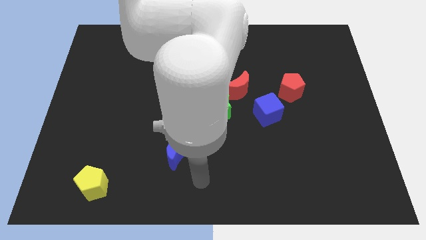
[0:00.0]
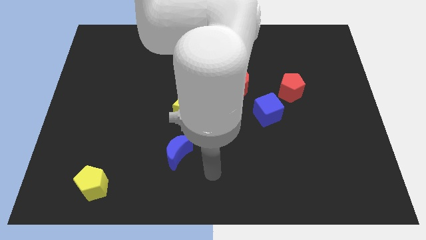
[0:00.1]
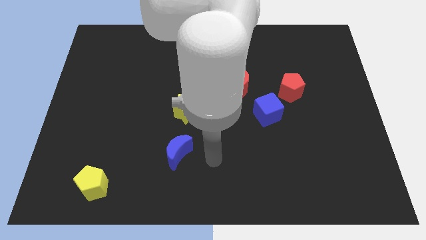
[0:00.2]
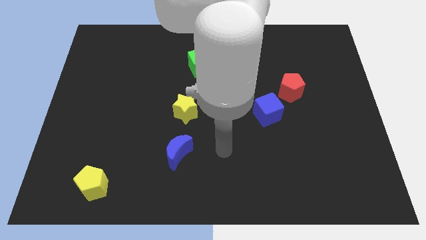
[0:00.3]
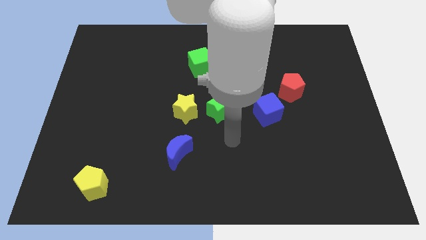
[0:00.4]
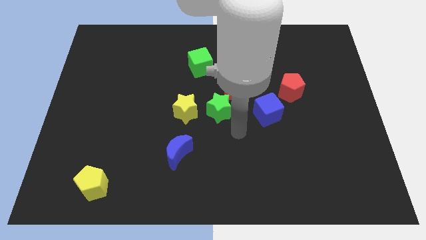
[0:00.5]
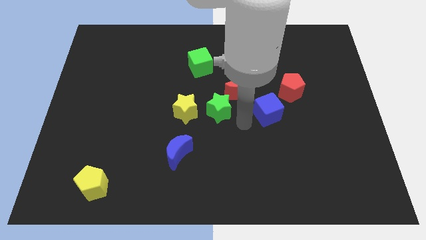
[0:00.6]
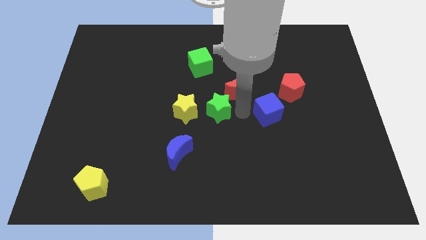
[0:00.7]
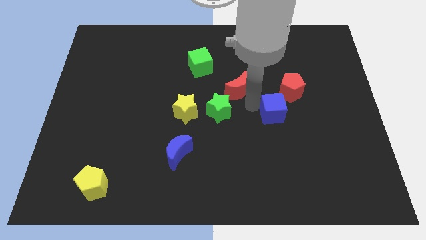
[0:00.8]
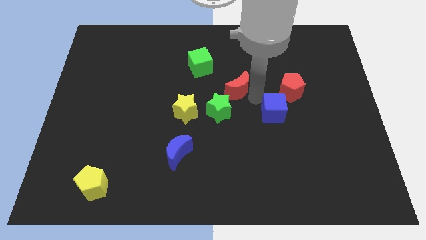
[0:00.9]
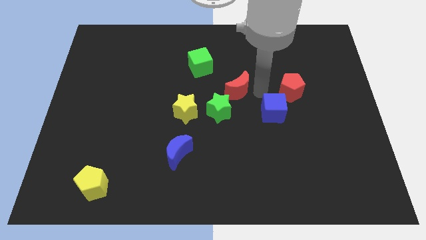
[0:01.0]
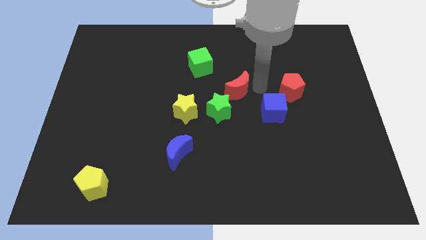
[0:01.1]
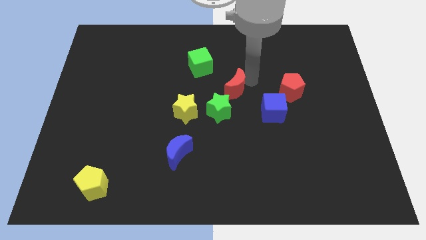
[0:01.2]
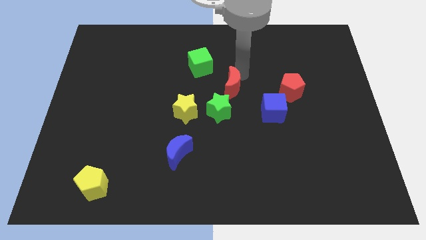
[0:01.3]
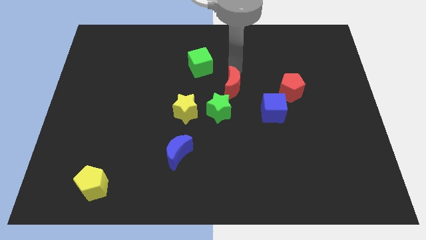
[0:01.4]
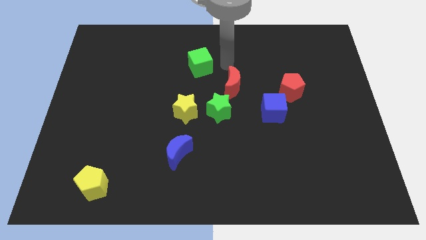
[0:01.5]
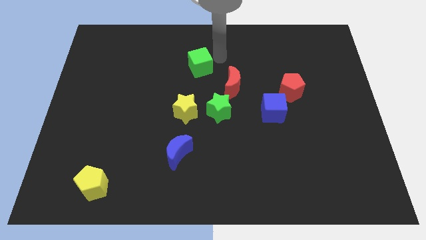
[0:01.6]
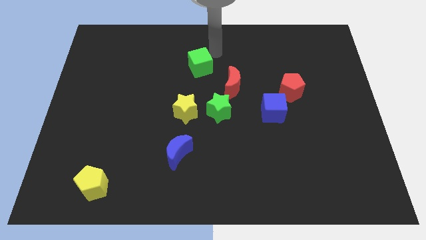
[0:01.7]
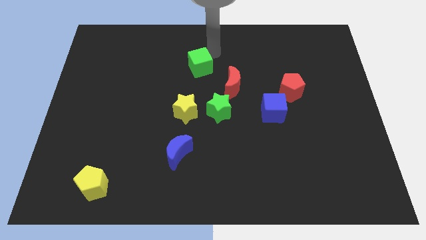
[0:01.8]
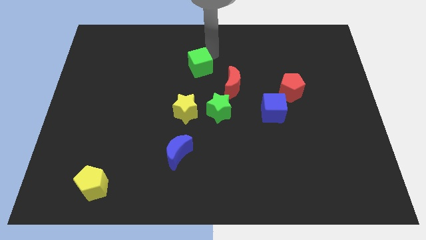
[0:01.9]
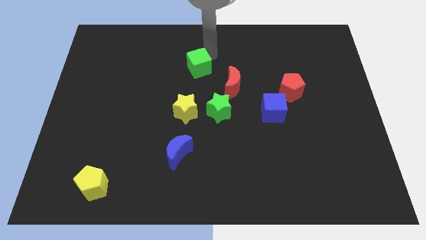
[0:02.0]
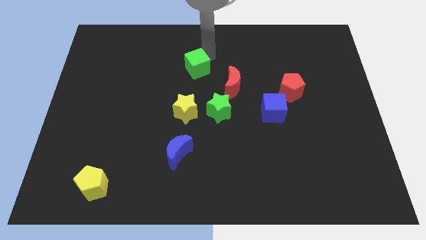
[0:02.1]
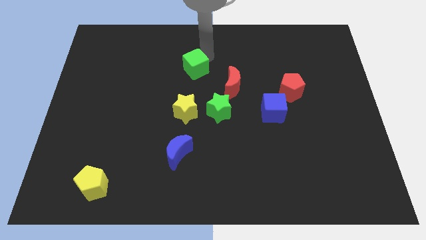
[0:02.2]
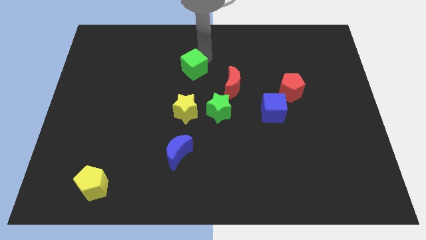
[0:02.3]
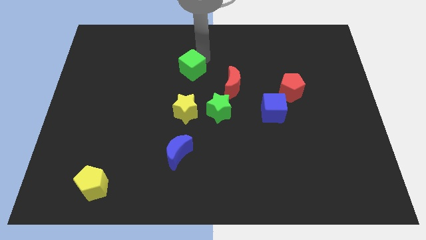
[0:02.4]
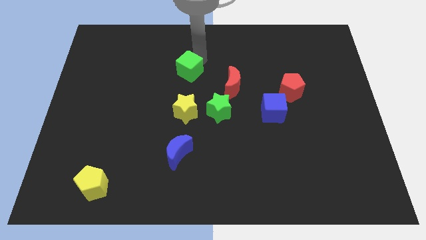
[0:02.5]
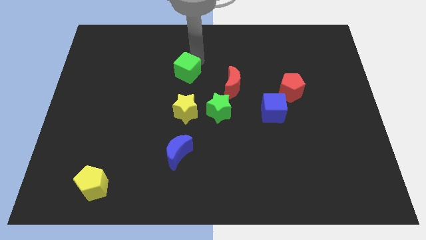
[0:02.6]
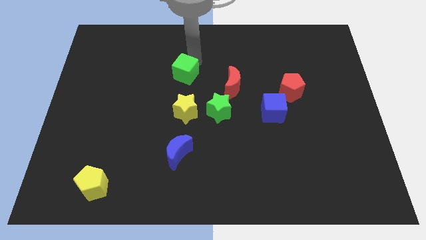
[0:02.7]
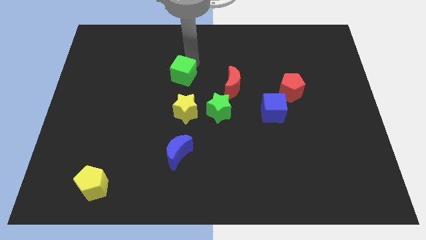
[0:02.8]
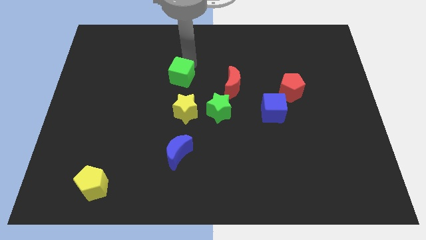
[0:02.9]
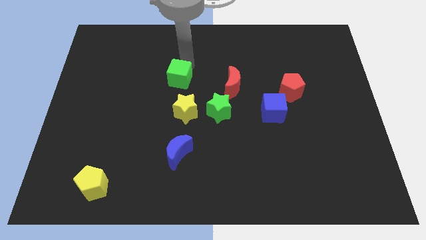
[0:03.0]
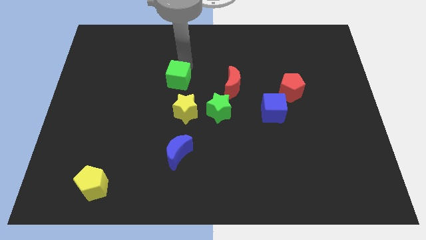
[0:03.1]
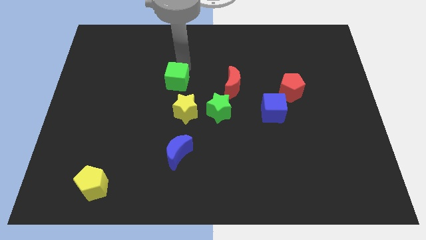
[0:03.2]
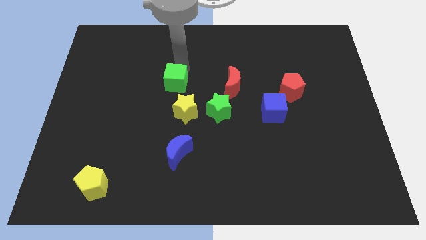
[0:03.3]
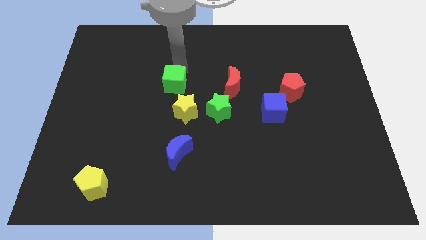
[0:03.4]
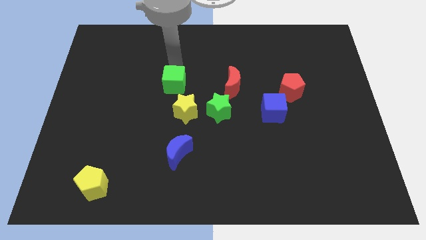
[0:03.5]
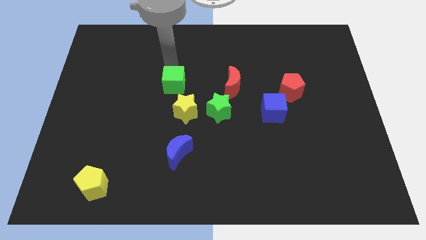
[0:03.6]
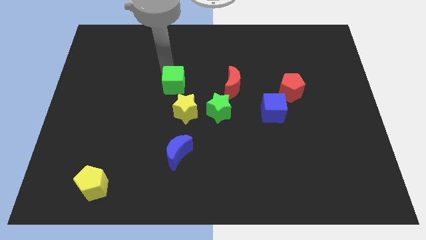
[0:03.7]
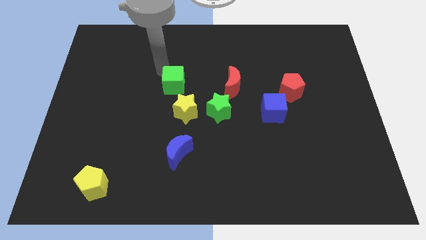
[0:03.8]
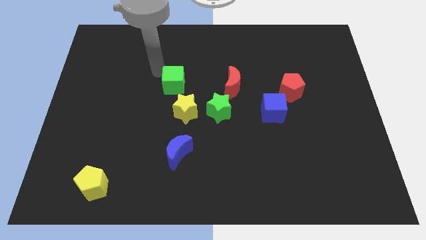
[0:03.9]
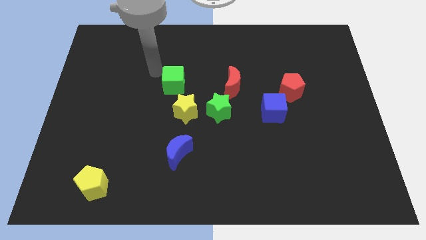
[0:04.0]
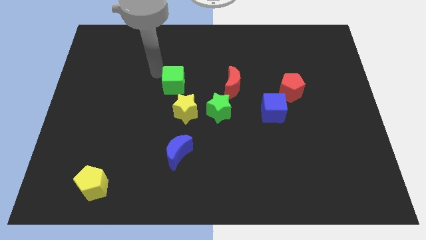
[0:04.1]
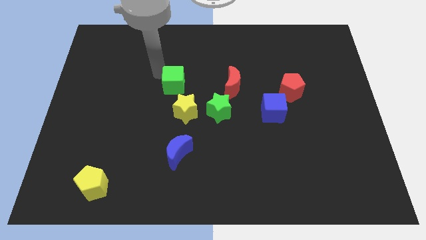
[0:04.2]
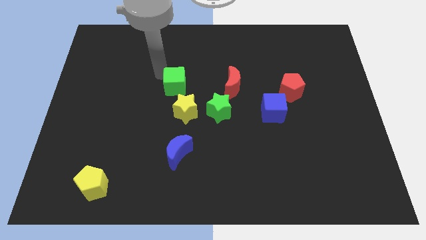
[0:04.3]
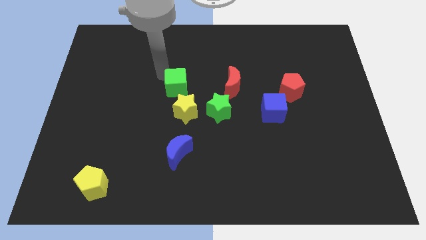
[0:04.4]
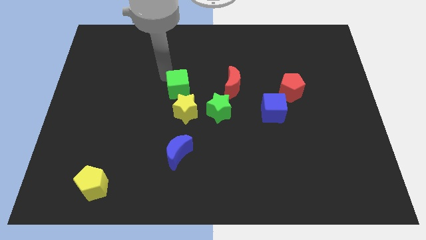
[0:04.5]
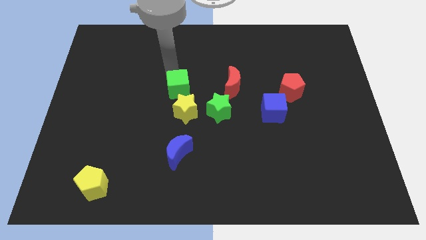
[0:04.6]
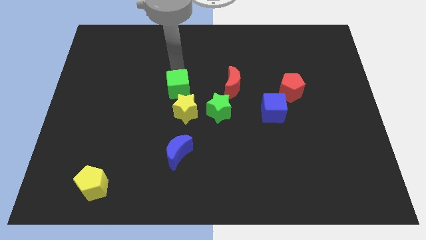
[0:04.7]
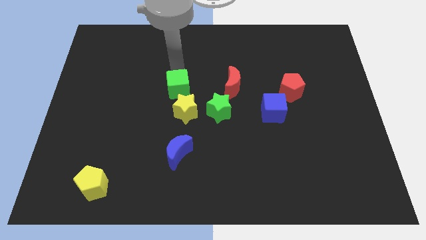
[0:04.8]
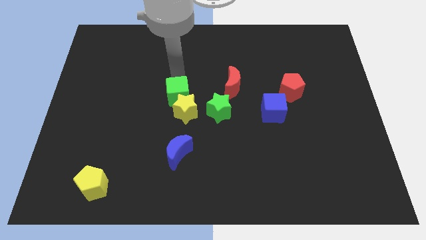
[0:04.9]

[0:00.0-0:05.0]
slide the green cube to the top side of the blue moon

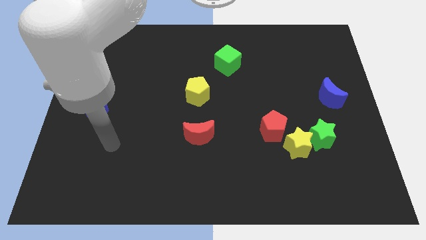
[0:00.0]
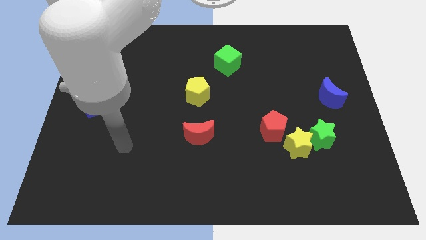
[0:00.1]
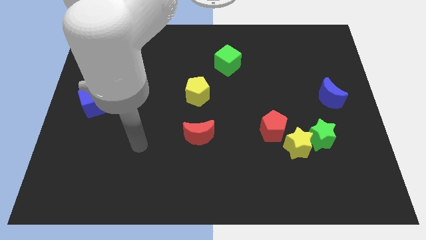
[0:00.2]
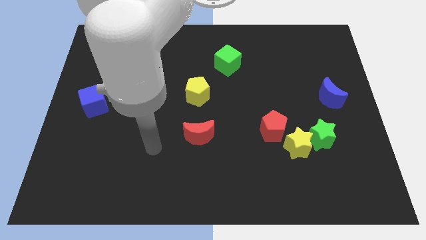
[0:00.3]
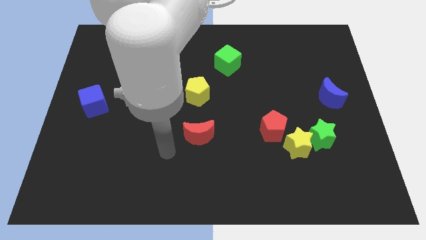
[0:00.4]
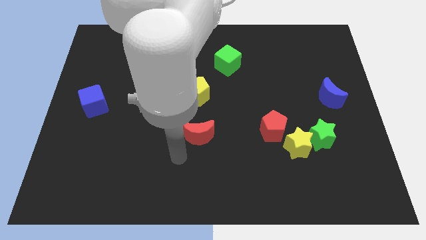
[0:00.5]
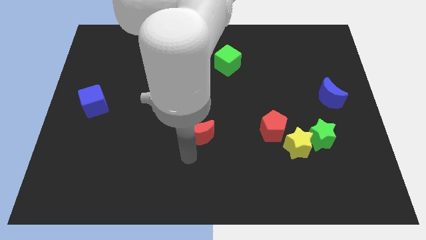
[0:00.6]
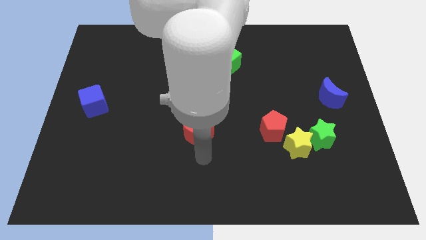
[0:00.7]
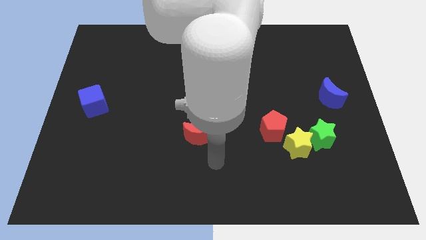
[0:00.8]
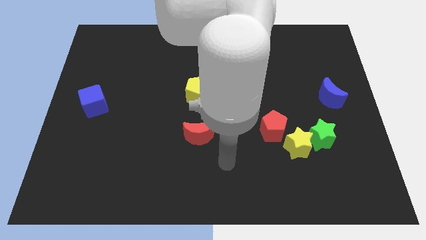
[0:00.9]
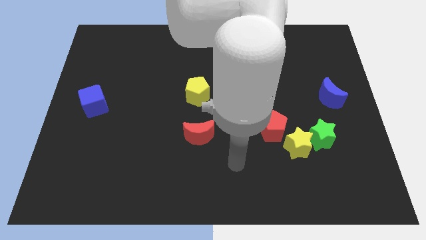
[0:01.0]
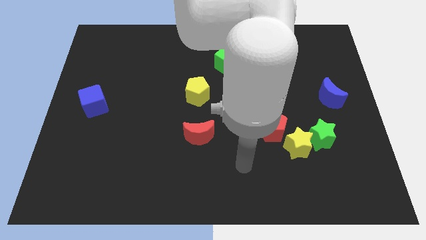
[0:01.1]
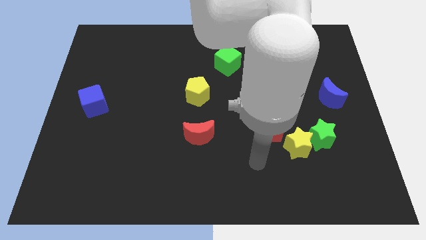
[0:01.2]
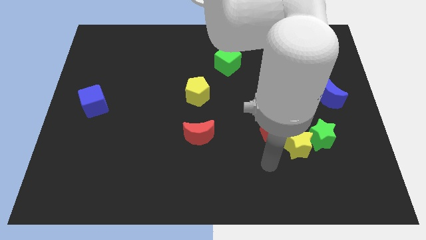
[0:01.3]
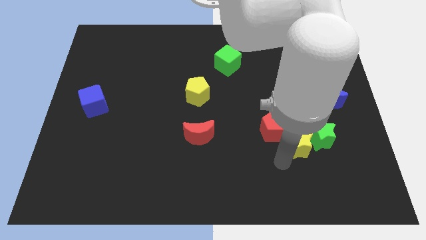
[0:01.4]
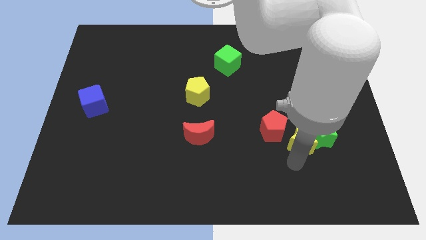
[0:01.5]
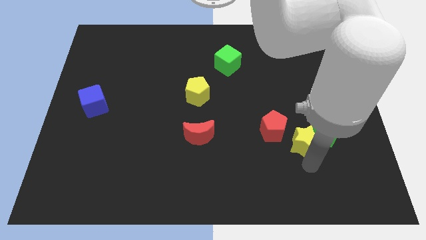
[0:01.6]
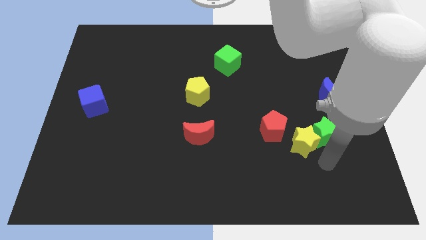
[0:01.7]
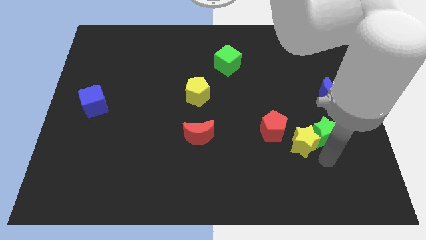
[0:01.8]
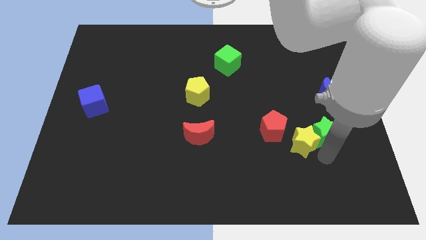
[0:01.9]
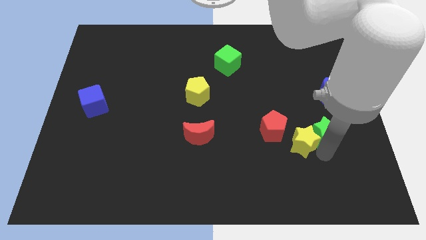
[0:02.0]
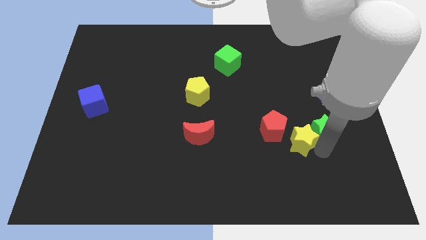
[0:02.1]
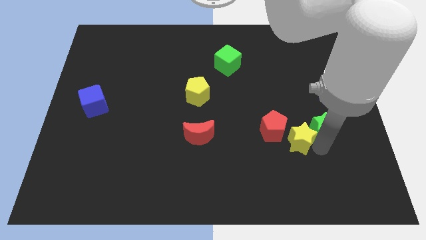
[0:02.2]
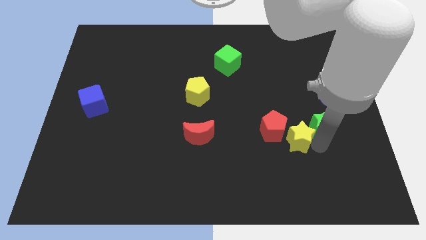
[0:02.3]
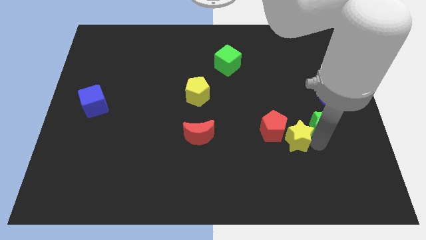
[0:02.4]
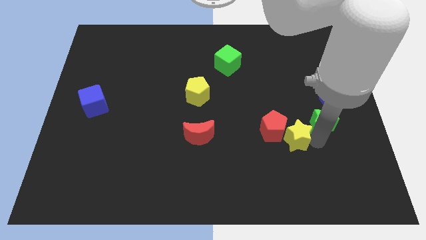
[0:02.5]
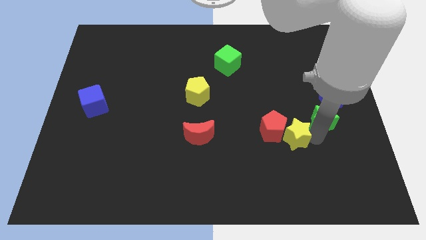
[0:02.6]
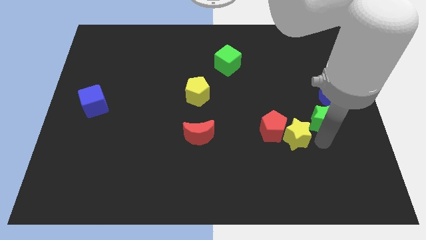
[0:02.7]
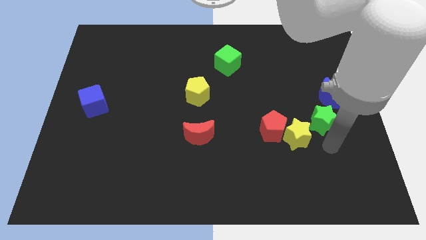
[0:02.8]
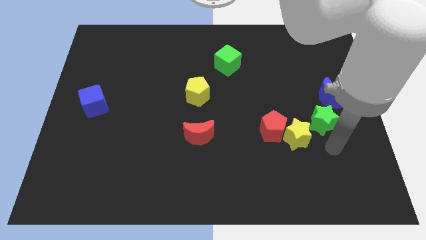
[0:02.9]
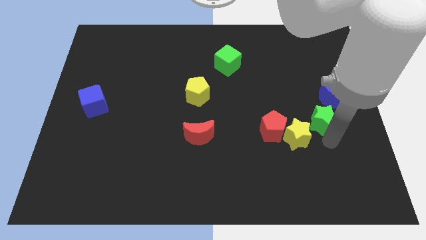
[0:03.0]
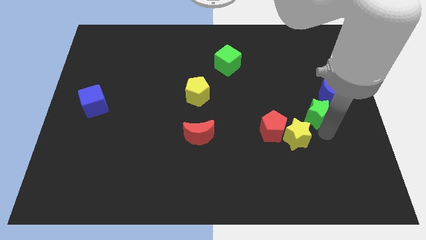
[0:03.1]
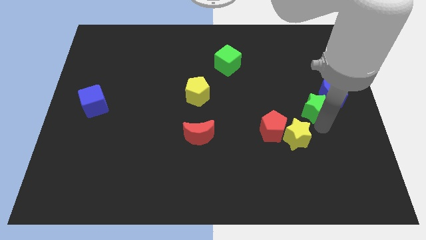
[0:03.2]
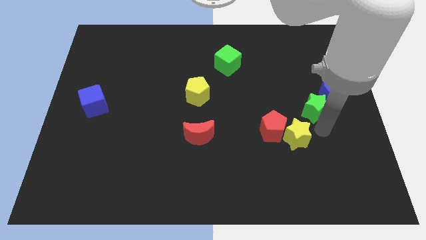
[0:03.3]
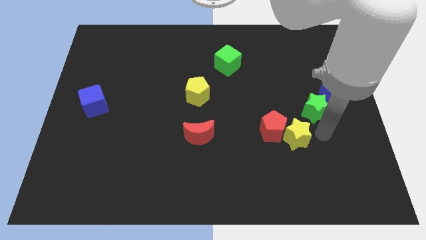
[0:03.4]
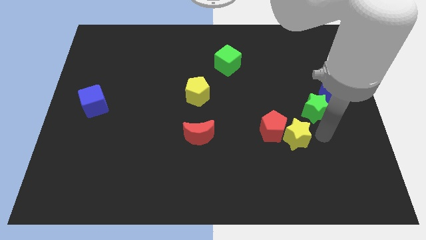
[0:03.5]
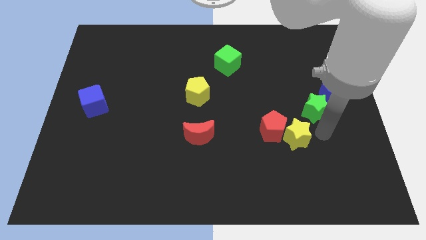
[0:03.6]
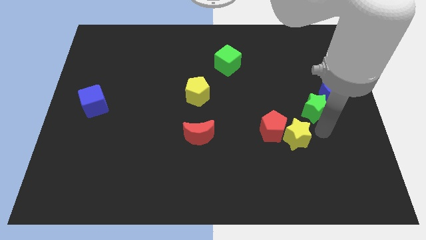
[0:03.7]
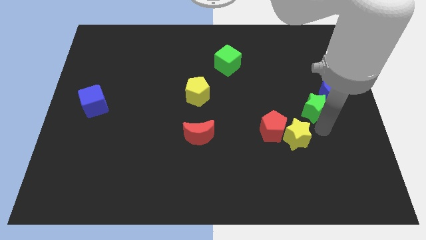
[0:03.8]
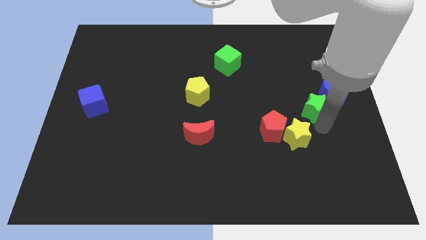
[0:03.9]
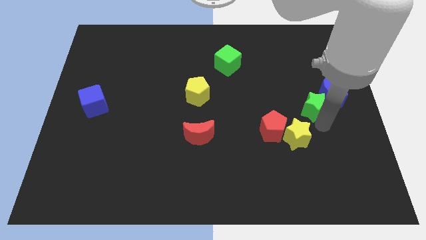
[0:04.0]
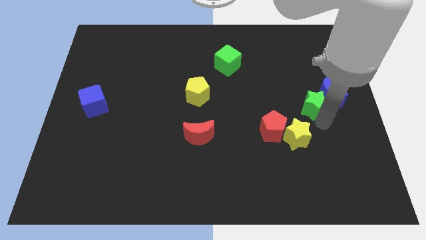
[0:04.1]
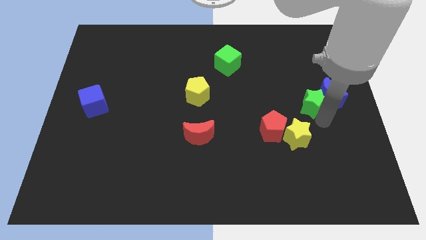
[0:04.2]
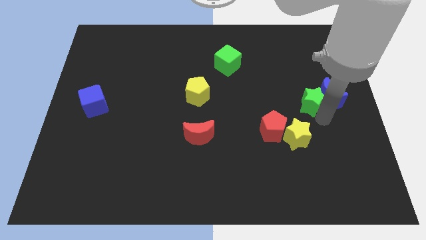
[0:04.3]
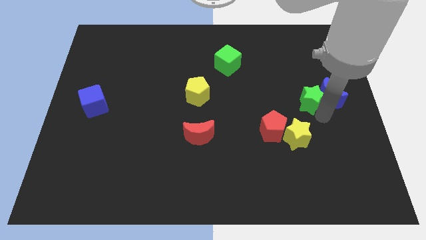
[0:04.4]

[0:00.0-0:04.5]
move the green star to the top left of the blue moon
